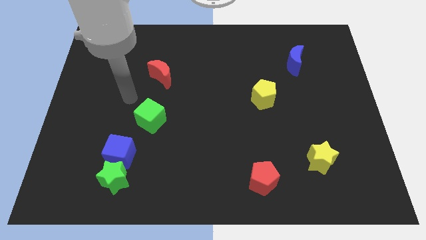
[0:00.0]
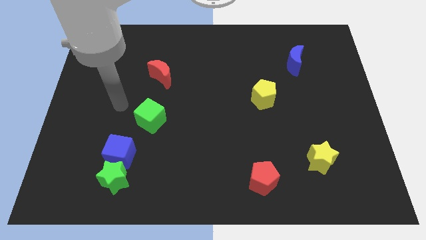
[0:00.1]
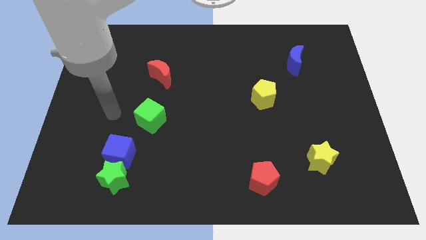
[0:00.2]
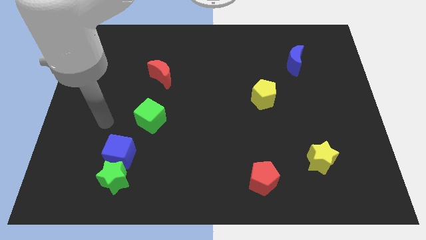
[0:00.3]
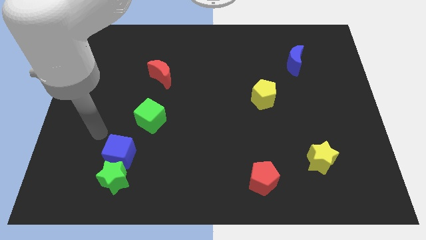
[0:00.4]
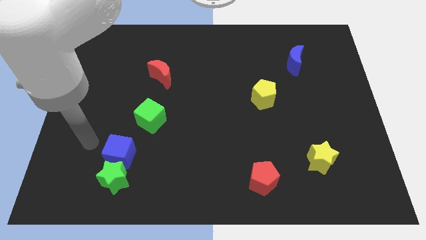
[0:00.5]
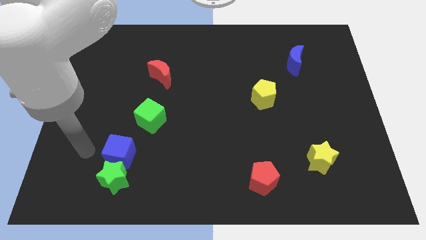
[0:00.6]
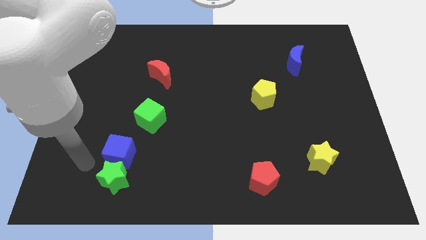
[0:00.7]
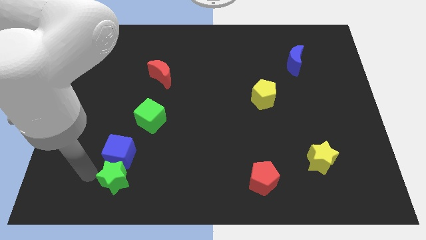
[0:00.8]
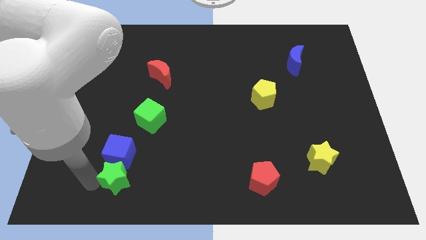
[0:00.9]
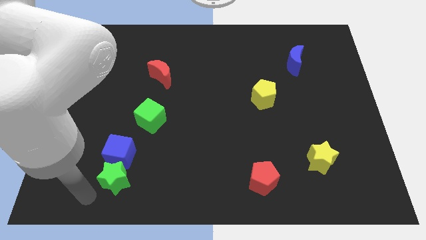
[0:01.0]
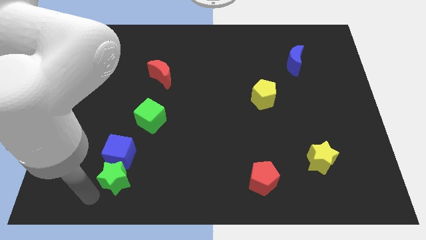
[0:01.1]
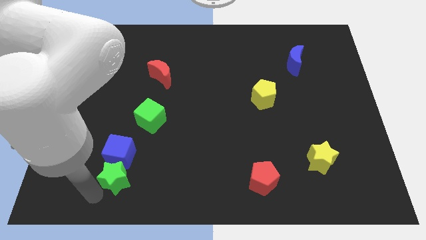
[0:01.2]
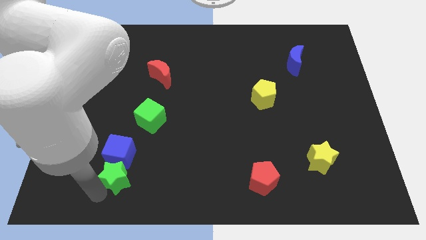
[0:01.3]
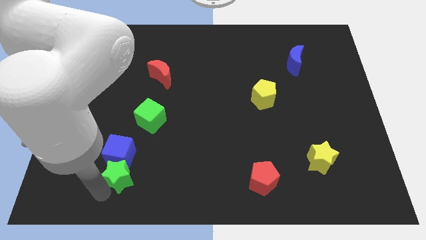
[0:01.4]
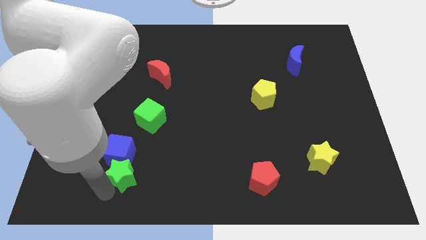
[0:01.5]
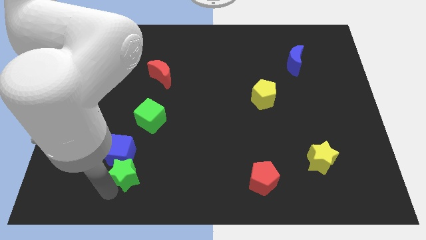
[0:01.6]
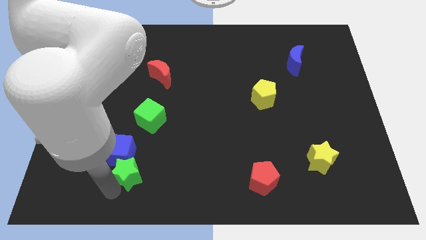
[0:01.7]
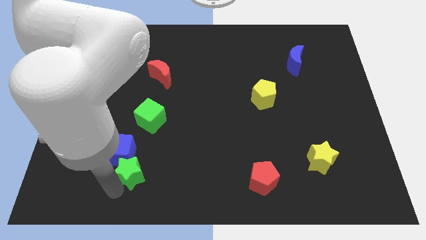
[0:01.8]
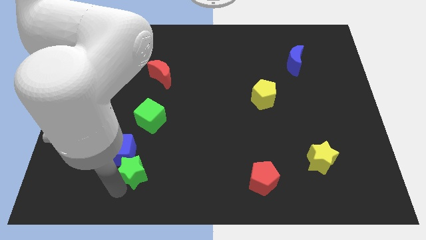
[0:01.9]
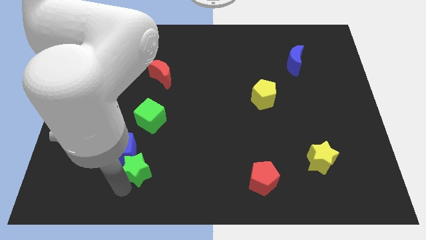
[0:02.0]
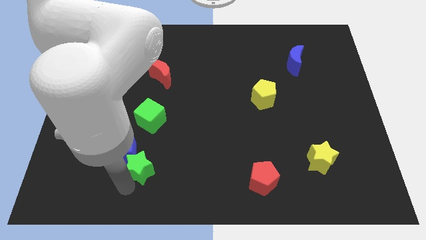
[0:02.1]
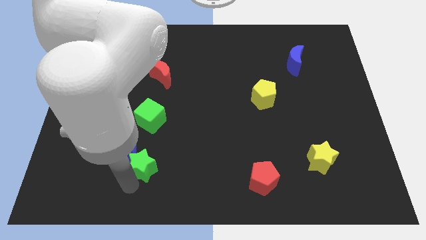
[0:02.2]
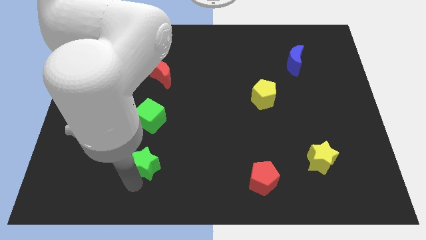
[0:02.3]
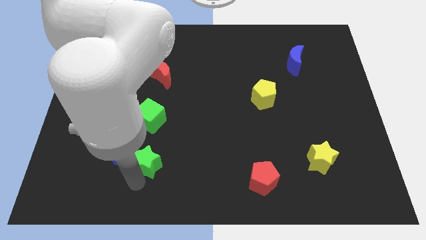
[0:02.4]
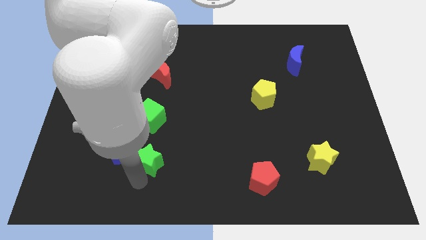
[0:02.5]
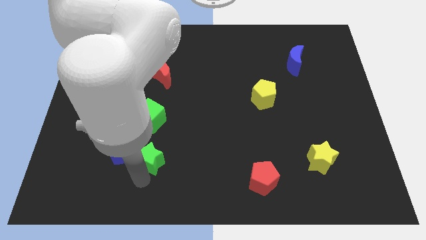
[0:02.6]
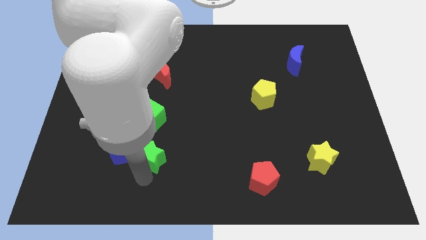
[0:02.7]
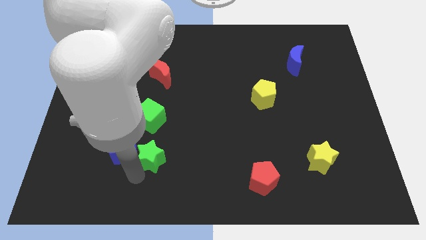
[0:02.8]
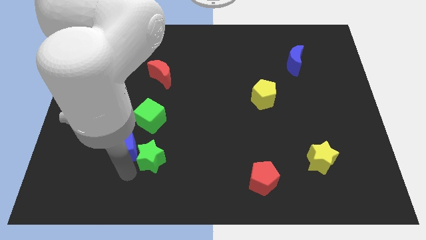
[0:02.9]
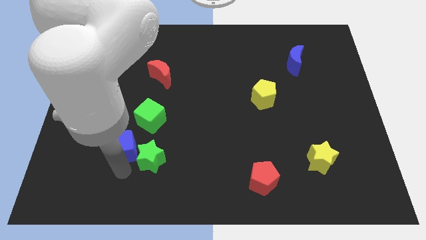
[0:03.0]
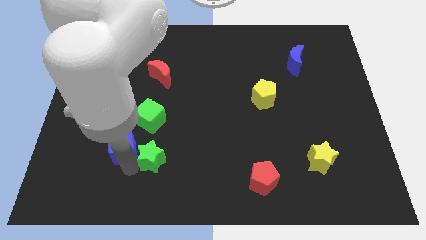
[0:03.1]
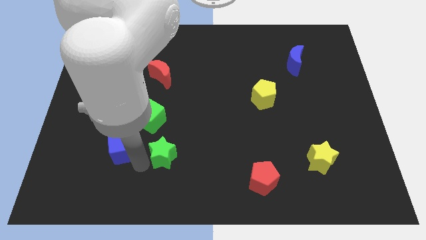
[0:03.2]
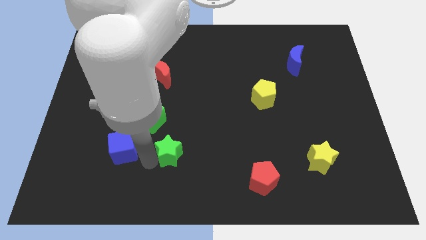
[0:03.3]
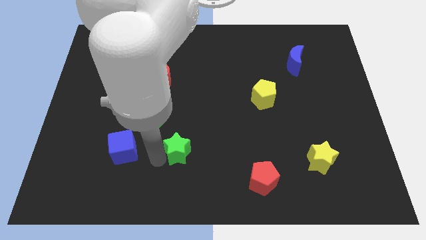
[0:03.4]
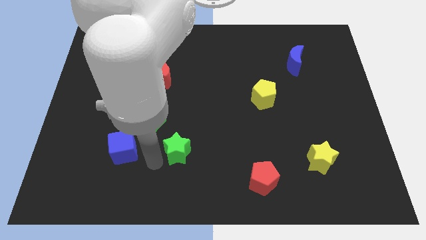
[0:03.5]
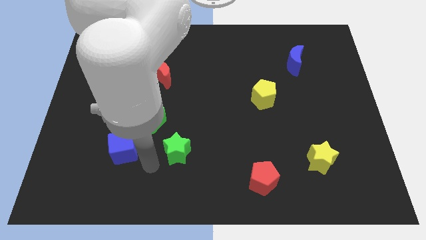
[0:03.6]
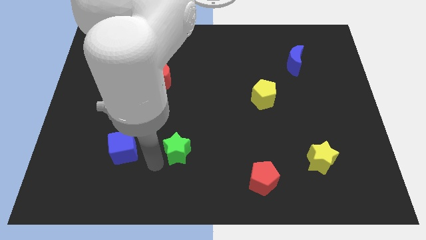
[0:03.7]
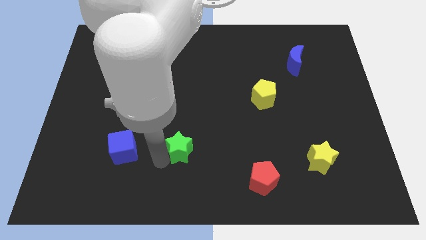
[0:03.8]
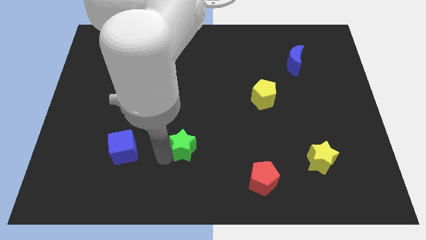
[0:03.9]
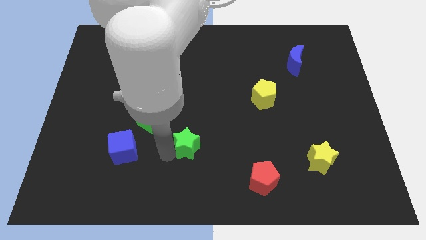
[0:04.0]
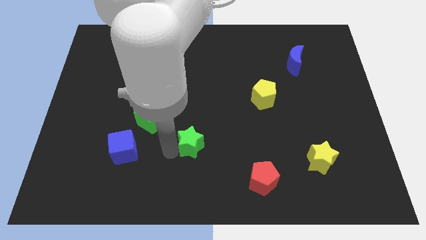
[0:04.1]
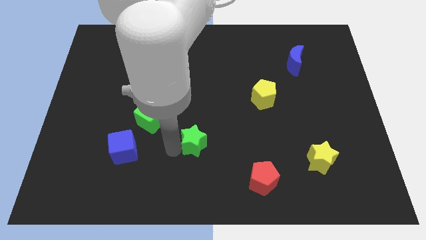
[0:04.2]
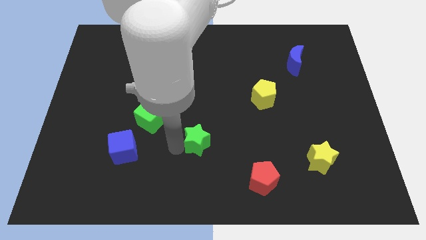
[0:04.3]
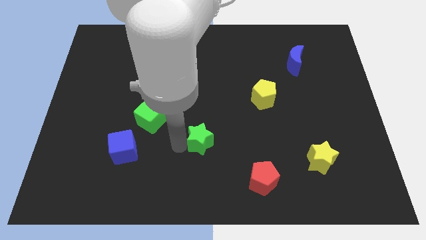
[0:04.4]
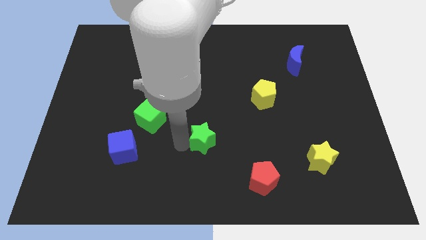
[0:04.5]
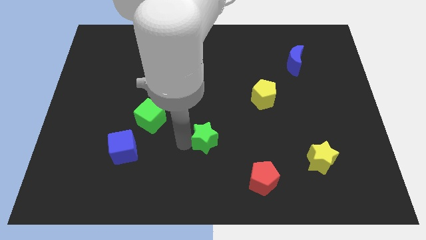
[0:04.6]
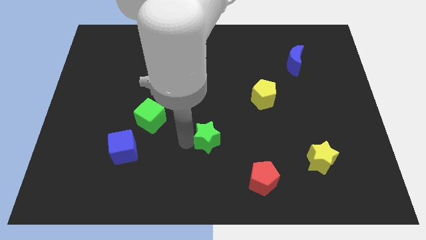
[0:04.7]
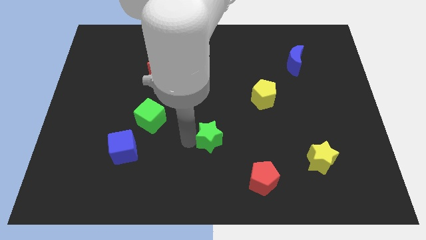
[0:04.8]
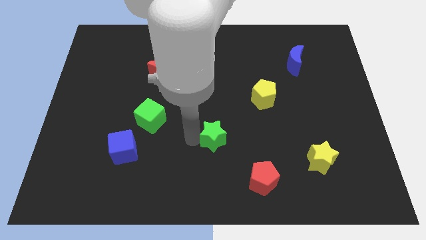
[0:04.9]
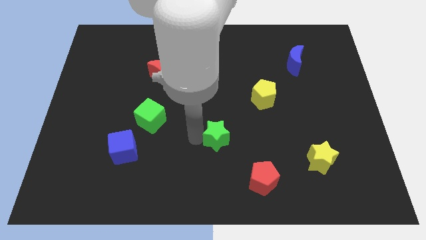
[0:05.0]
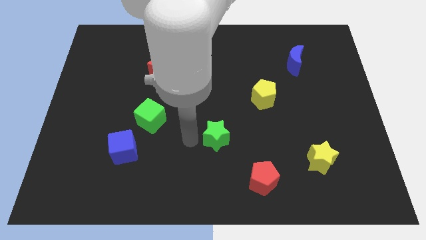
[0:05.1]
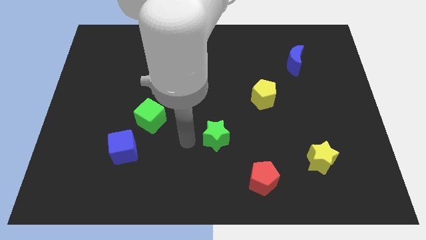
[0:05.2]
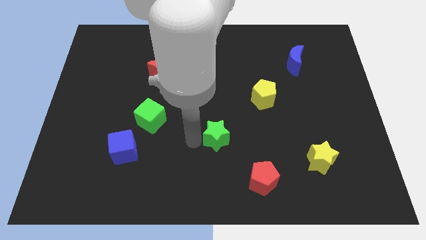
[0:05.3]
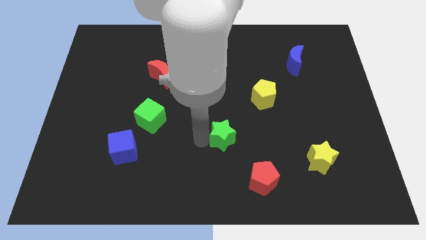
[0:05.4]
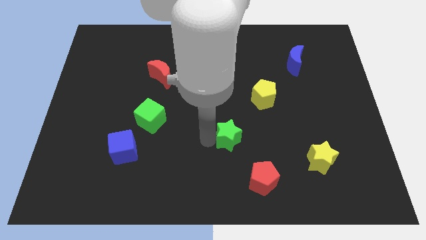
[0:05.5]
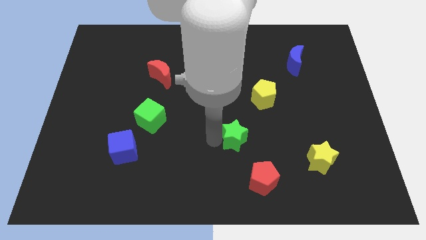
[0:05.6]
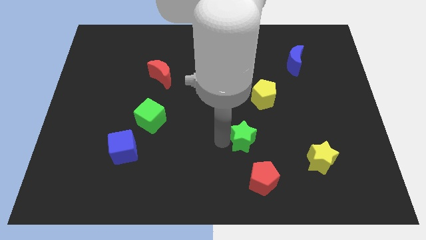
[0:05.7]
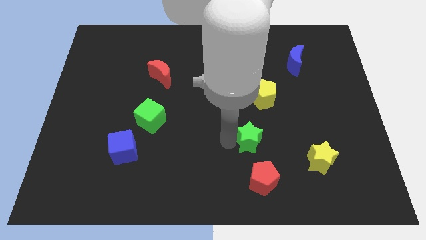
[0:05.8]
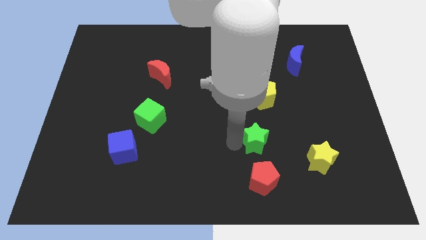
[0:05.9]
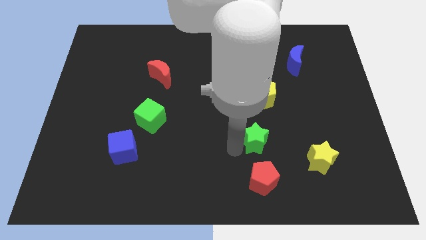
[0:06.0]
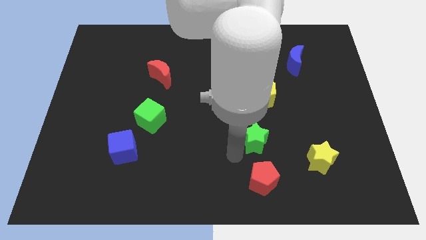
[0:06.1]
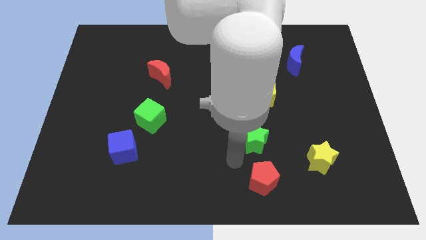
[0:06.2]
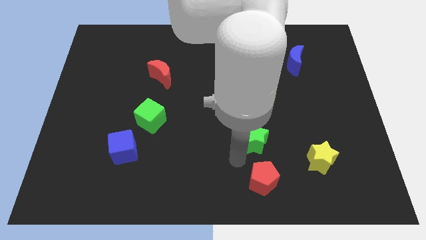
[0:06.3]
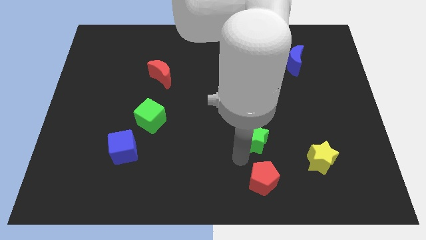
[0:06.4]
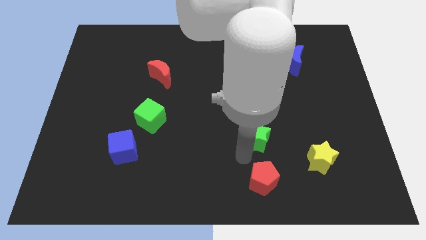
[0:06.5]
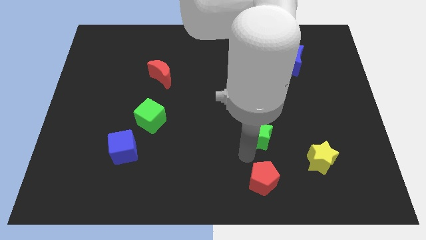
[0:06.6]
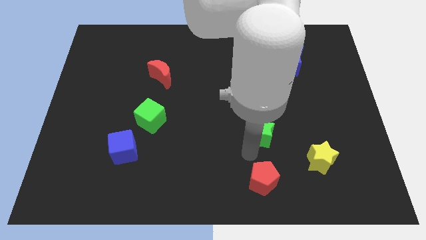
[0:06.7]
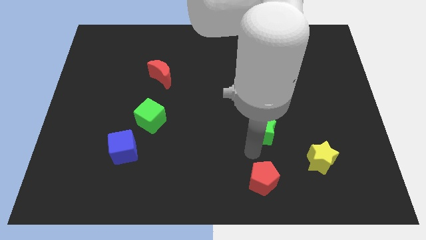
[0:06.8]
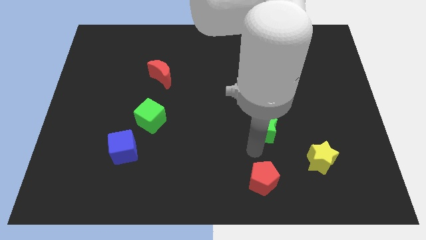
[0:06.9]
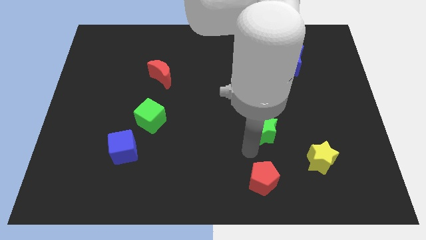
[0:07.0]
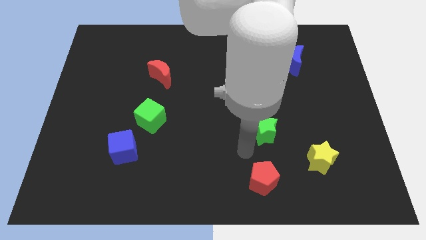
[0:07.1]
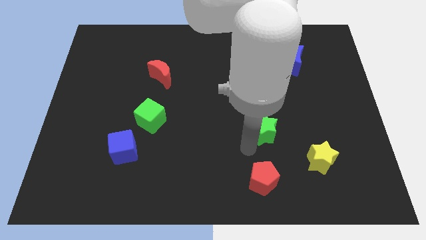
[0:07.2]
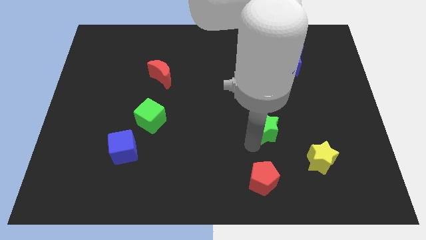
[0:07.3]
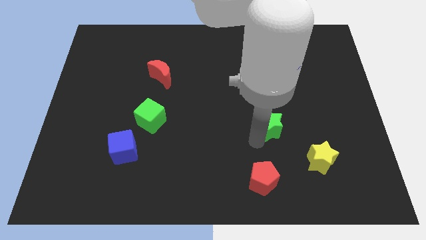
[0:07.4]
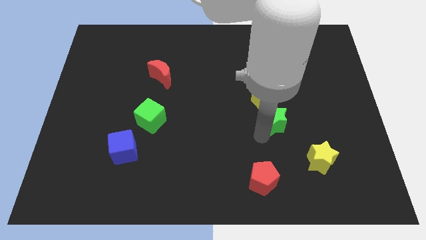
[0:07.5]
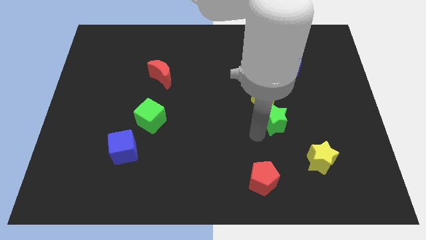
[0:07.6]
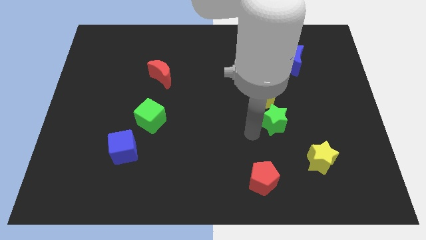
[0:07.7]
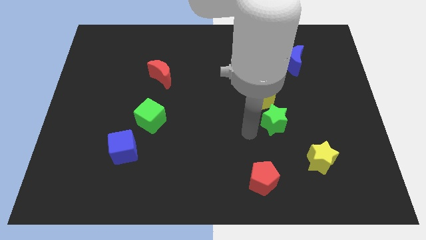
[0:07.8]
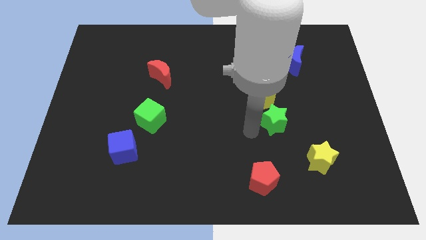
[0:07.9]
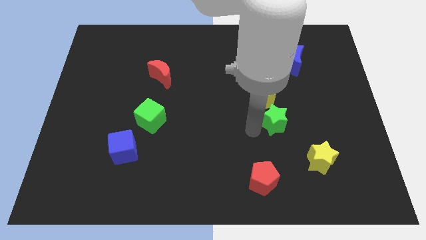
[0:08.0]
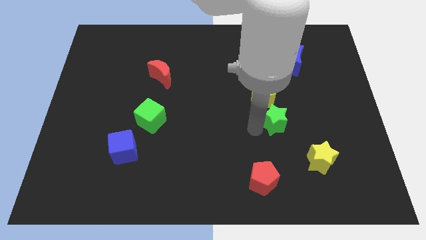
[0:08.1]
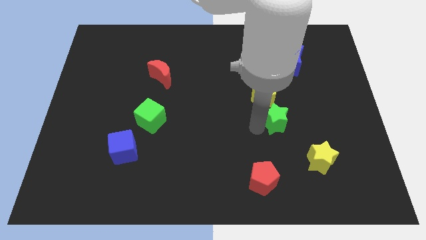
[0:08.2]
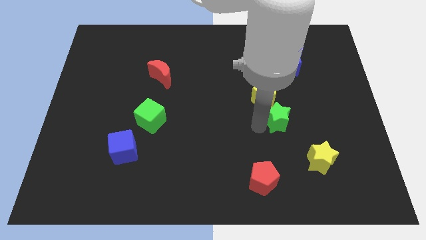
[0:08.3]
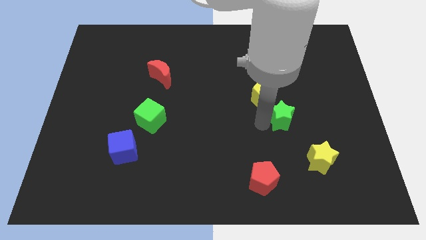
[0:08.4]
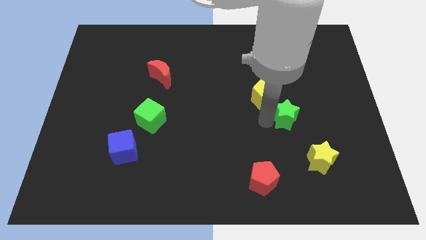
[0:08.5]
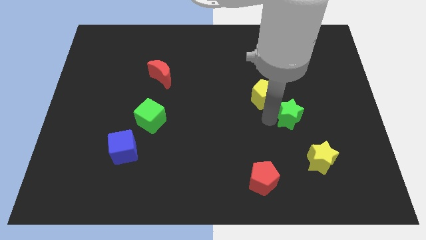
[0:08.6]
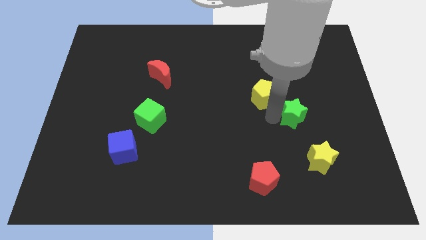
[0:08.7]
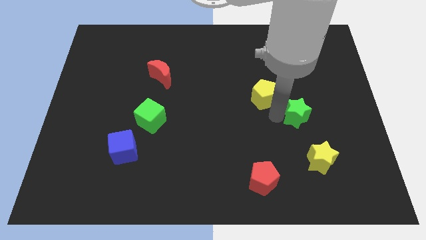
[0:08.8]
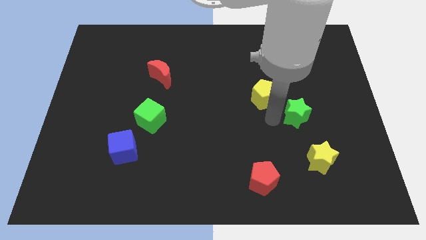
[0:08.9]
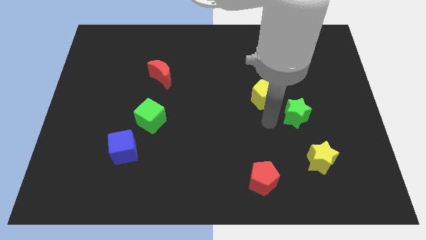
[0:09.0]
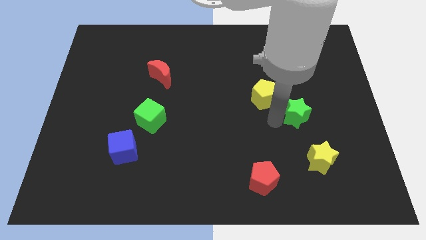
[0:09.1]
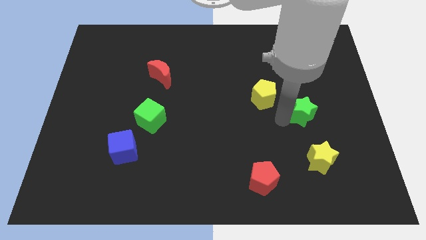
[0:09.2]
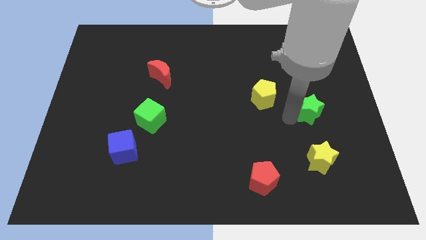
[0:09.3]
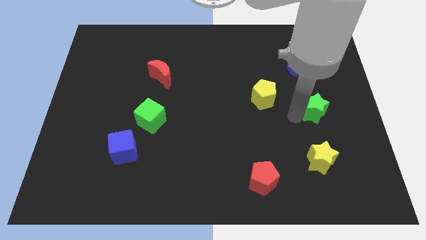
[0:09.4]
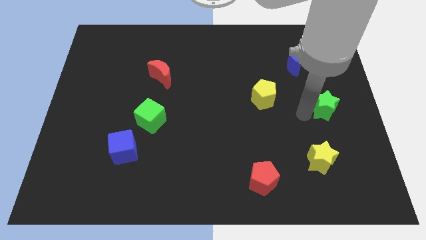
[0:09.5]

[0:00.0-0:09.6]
slide the green star to the center right
